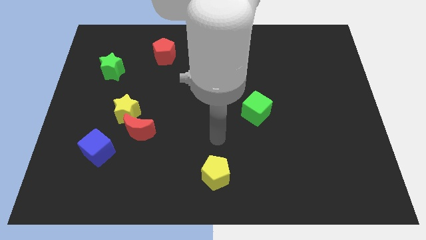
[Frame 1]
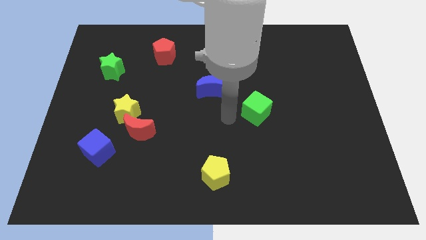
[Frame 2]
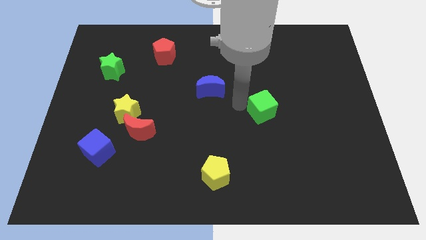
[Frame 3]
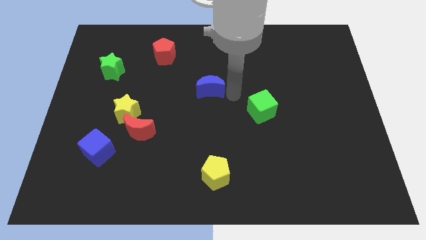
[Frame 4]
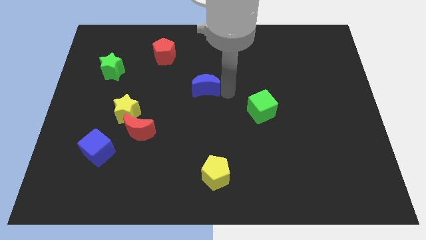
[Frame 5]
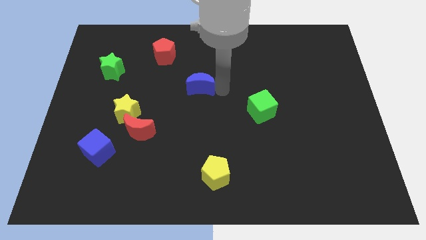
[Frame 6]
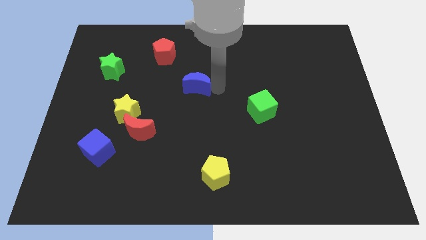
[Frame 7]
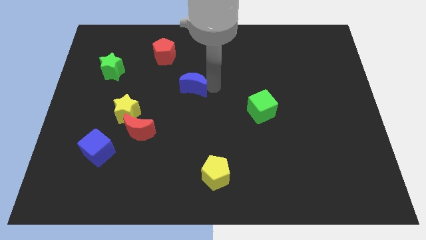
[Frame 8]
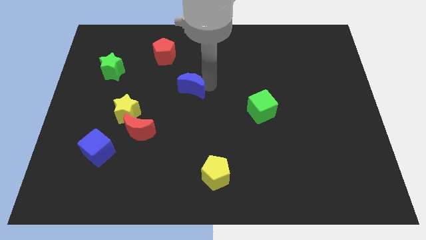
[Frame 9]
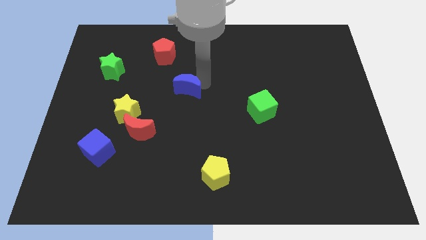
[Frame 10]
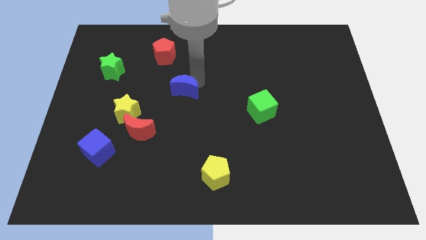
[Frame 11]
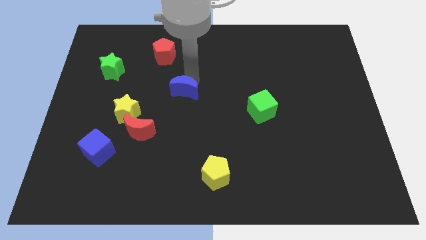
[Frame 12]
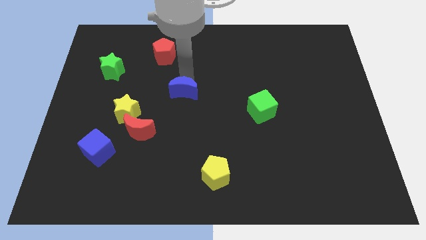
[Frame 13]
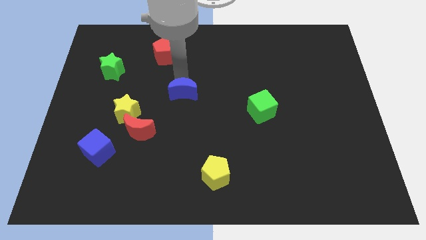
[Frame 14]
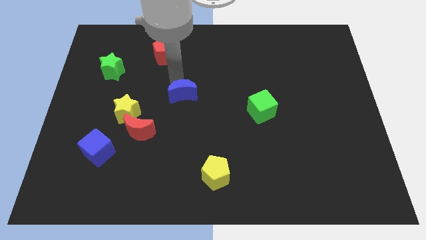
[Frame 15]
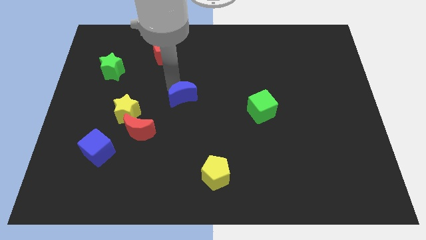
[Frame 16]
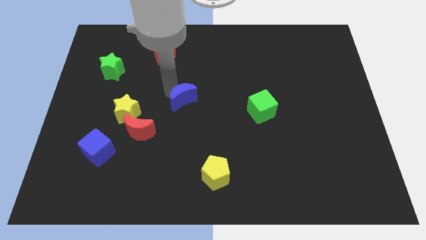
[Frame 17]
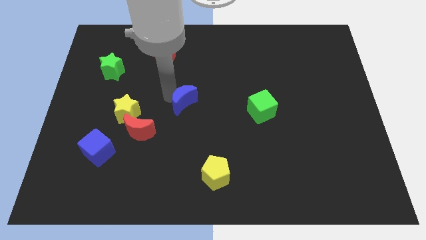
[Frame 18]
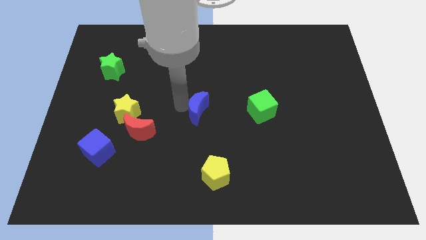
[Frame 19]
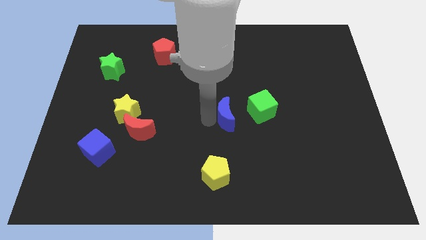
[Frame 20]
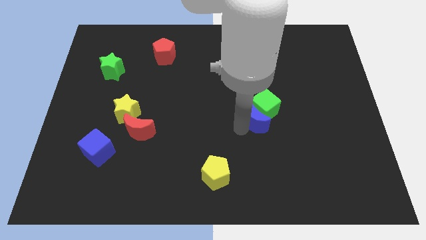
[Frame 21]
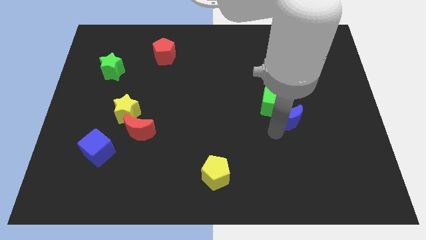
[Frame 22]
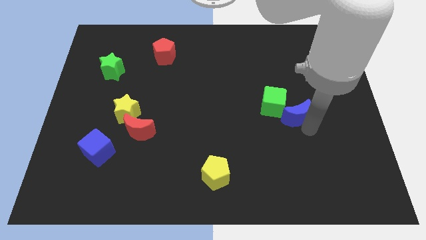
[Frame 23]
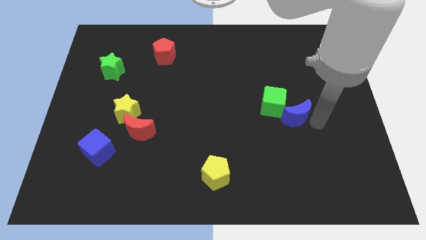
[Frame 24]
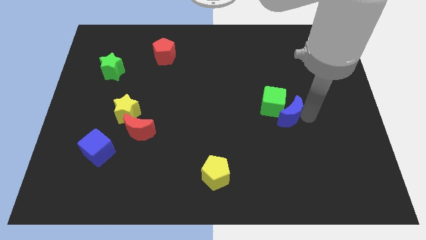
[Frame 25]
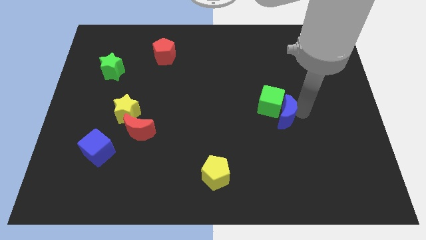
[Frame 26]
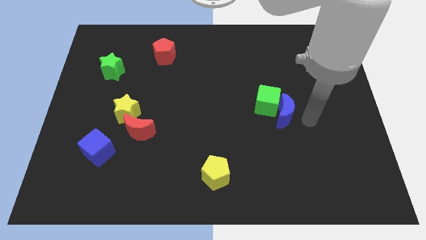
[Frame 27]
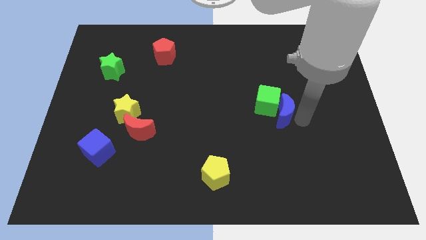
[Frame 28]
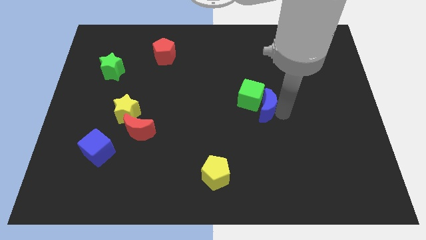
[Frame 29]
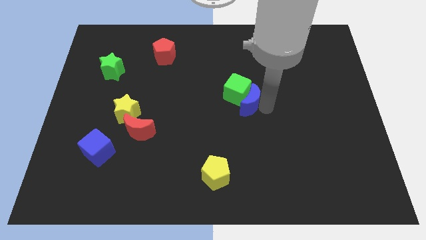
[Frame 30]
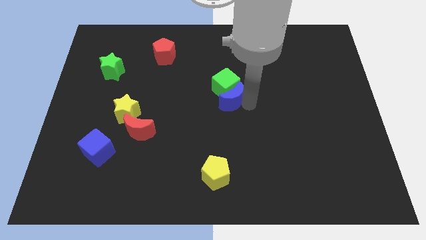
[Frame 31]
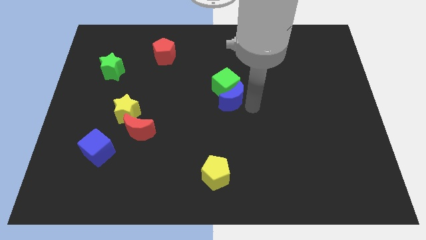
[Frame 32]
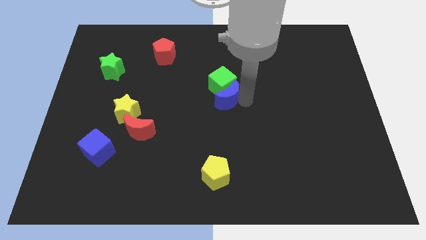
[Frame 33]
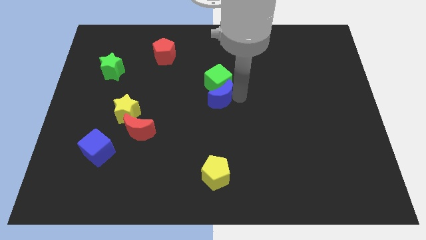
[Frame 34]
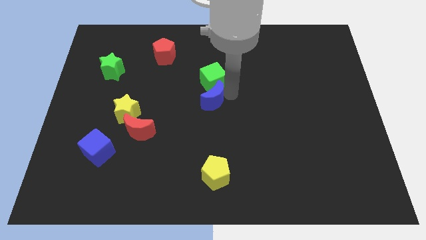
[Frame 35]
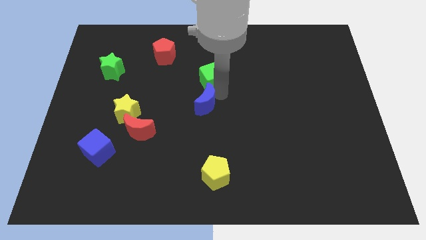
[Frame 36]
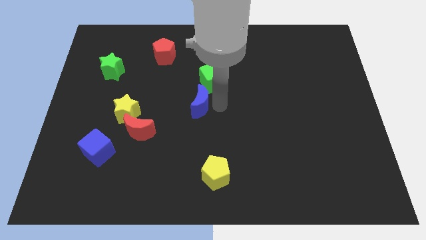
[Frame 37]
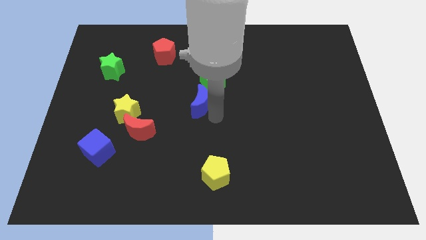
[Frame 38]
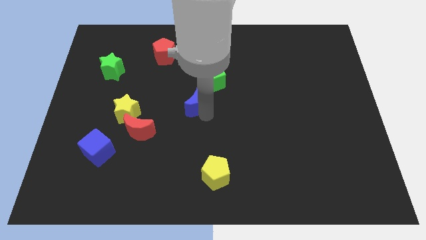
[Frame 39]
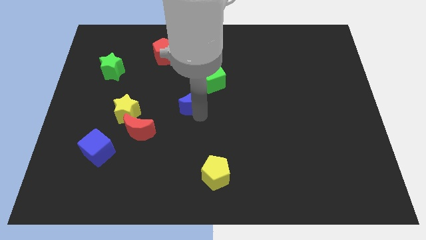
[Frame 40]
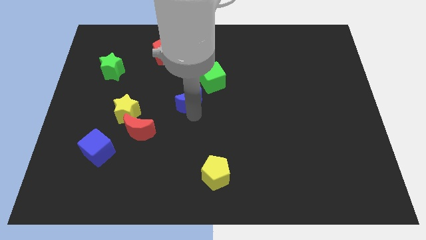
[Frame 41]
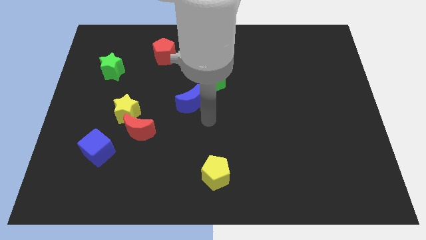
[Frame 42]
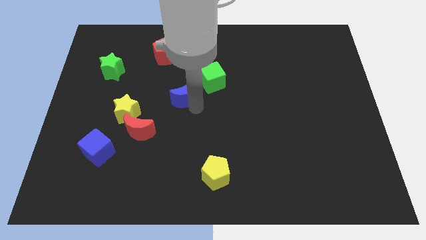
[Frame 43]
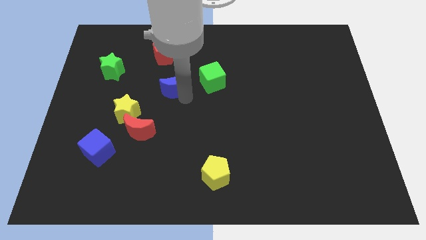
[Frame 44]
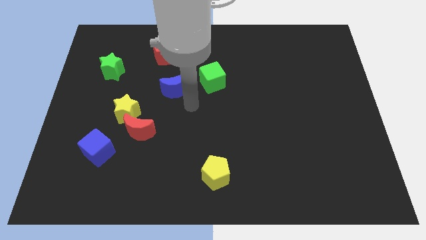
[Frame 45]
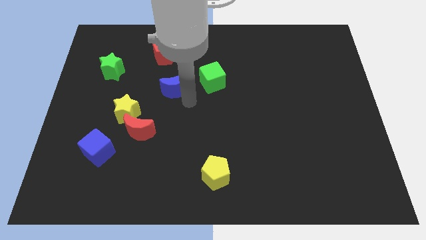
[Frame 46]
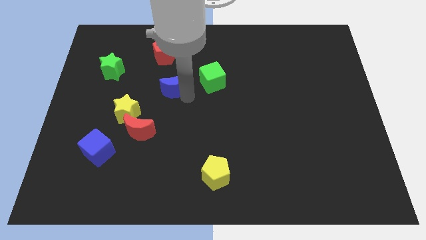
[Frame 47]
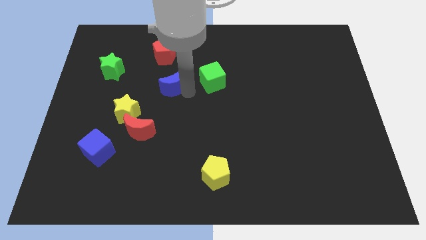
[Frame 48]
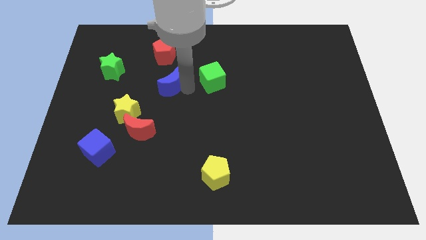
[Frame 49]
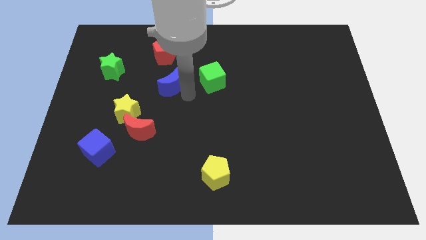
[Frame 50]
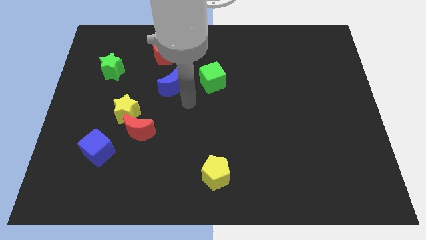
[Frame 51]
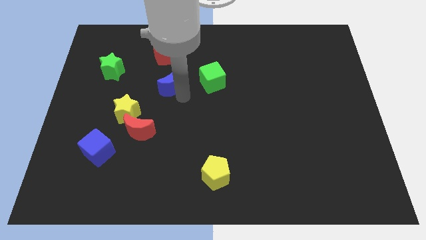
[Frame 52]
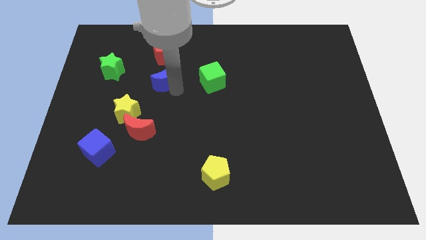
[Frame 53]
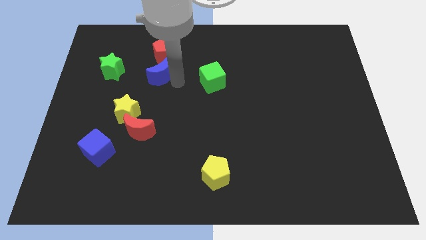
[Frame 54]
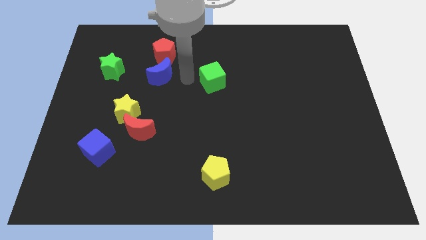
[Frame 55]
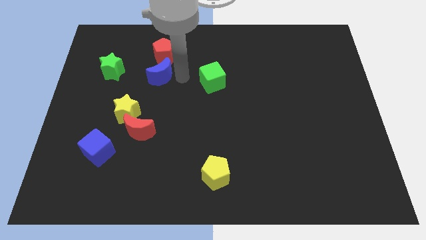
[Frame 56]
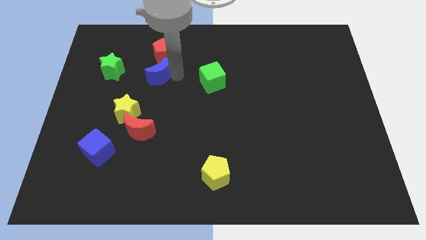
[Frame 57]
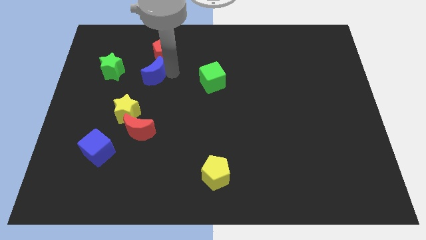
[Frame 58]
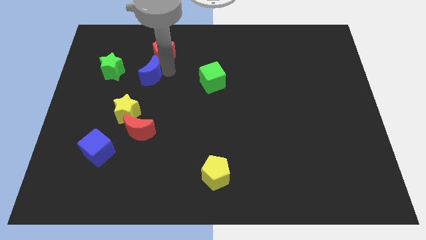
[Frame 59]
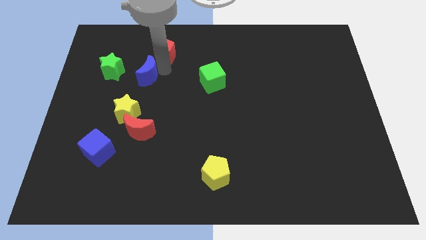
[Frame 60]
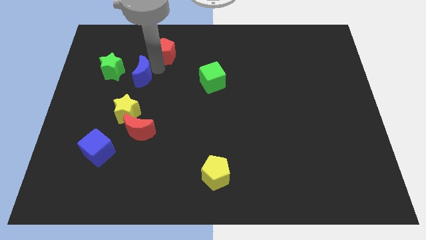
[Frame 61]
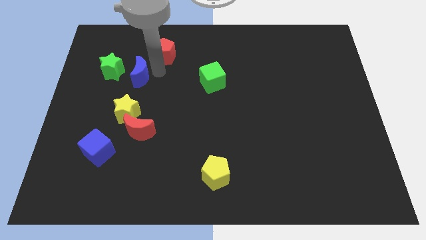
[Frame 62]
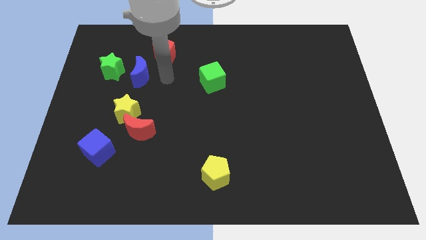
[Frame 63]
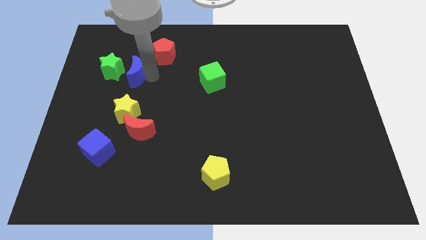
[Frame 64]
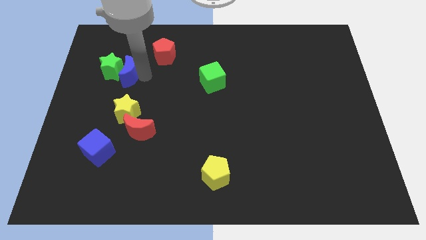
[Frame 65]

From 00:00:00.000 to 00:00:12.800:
put the blue moon towards the green star
